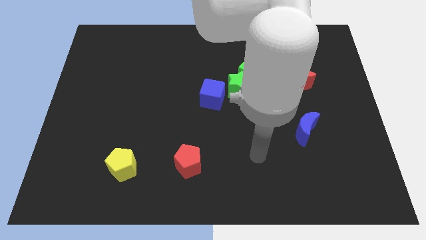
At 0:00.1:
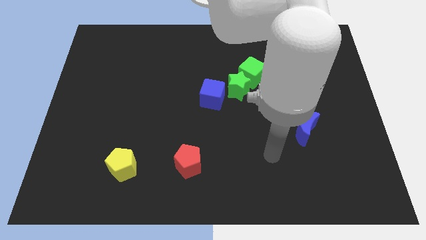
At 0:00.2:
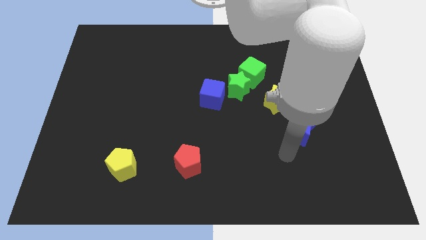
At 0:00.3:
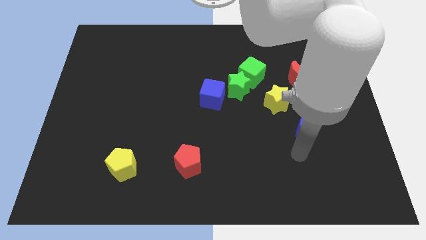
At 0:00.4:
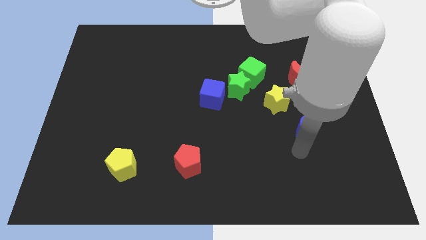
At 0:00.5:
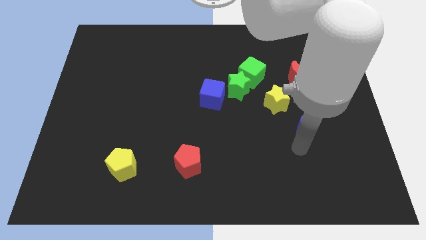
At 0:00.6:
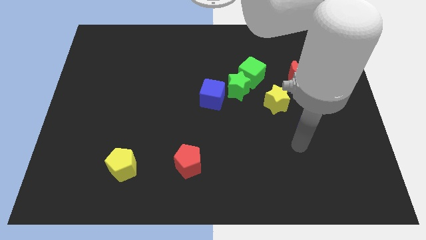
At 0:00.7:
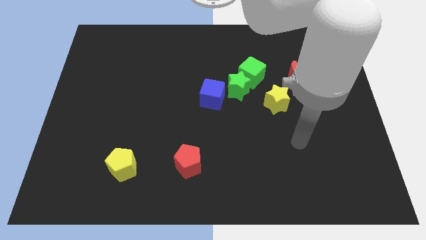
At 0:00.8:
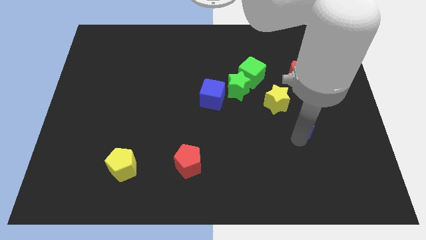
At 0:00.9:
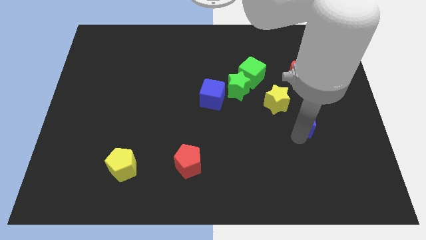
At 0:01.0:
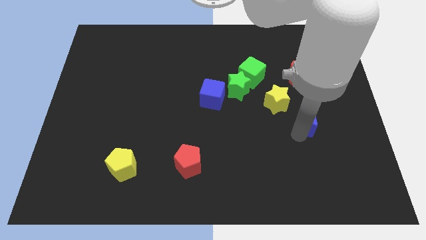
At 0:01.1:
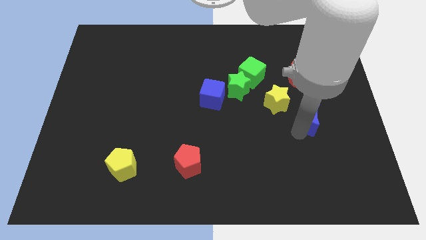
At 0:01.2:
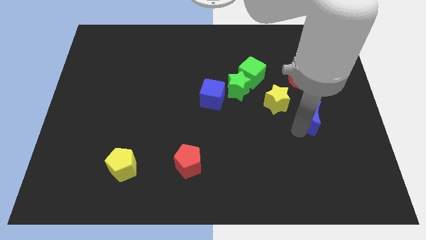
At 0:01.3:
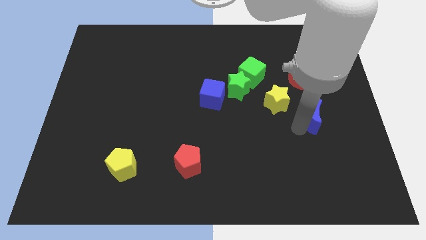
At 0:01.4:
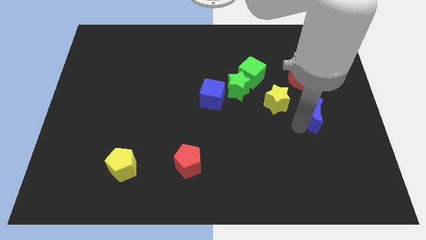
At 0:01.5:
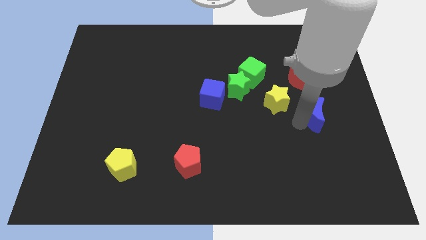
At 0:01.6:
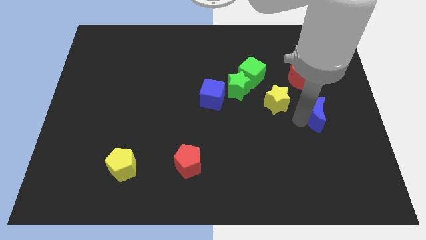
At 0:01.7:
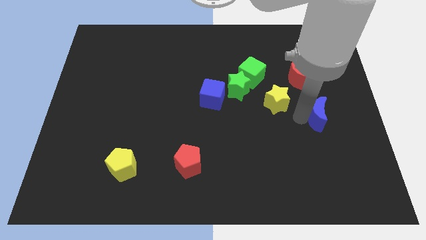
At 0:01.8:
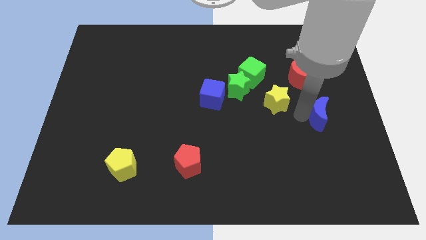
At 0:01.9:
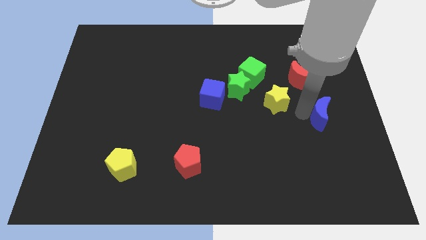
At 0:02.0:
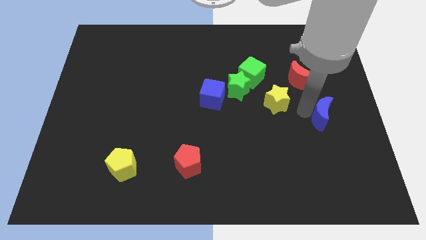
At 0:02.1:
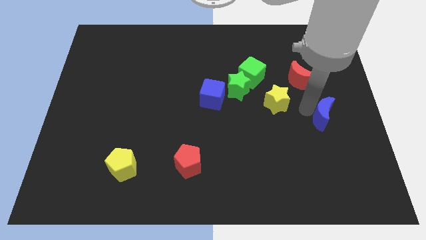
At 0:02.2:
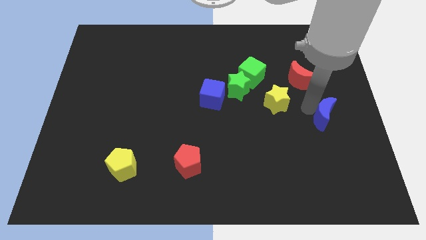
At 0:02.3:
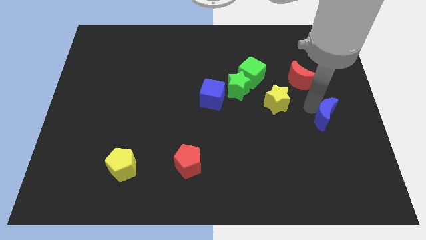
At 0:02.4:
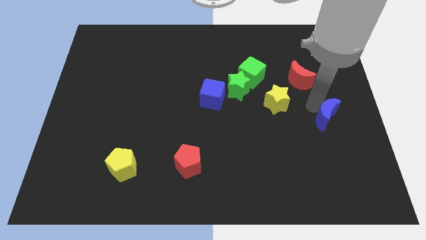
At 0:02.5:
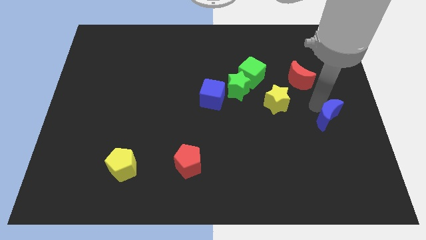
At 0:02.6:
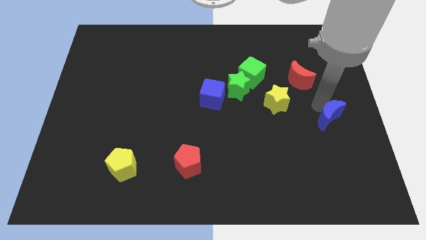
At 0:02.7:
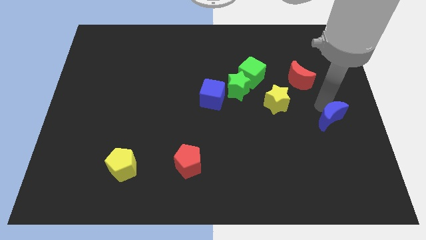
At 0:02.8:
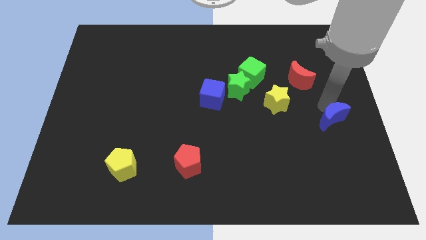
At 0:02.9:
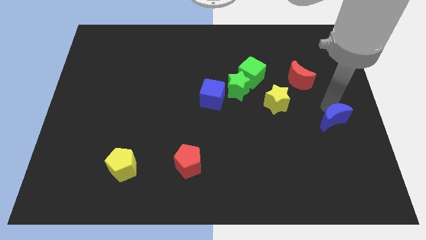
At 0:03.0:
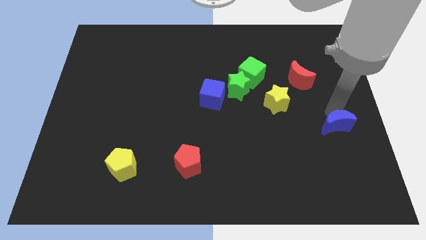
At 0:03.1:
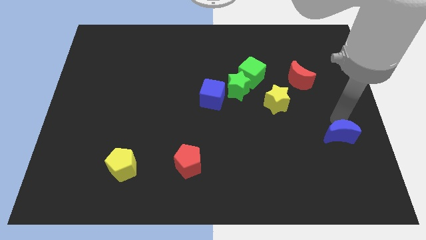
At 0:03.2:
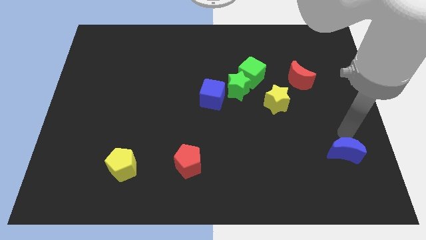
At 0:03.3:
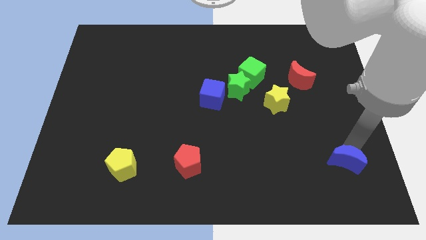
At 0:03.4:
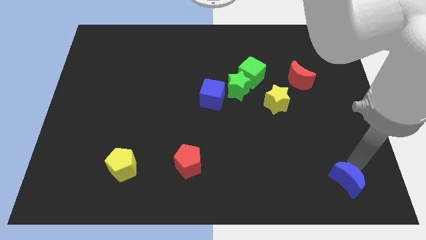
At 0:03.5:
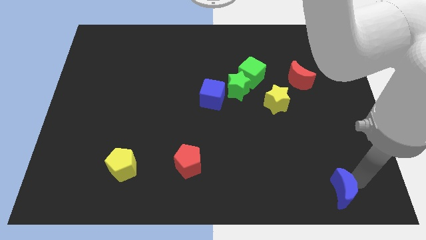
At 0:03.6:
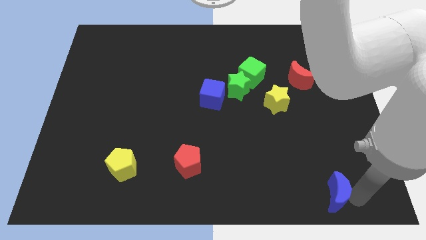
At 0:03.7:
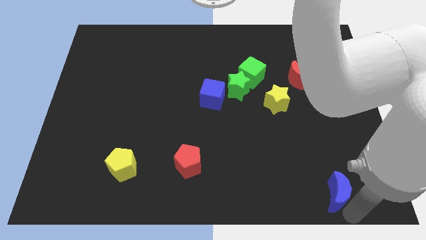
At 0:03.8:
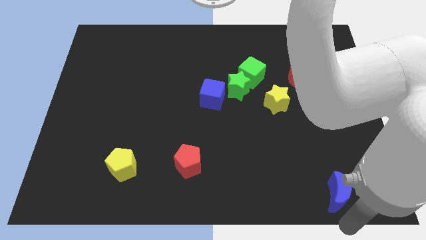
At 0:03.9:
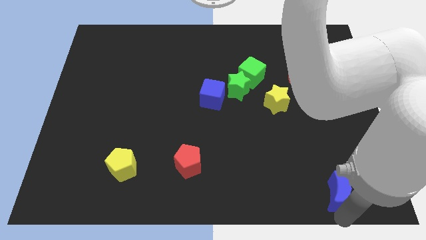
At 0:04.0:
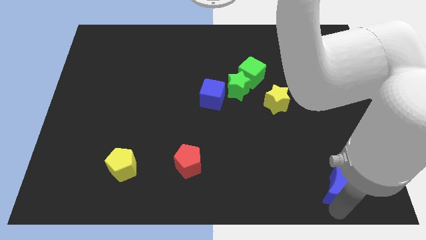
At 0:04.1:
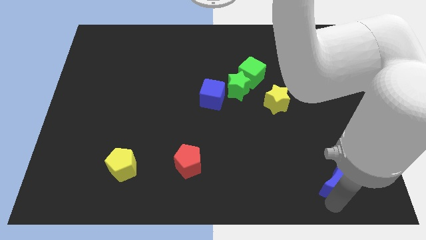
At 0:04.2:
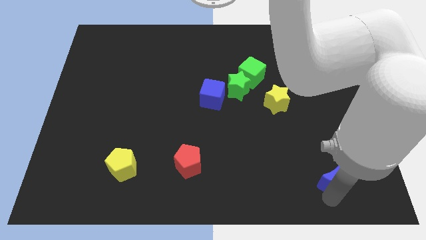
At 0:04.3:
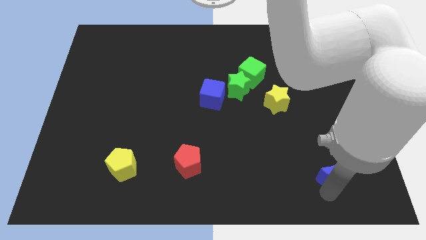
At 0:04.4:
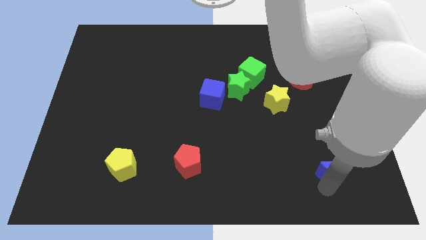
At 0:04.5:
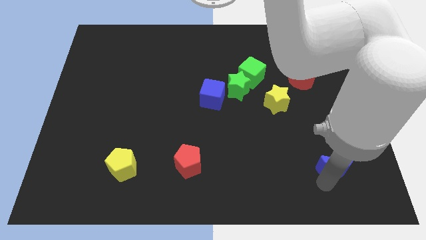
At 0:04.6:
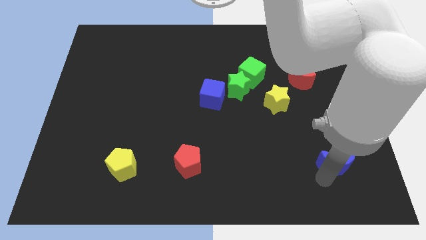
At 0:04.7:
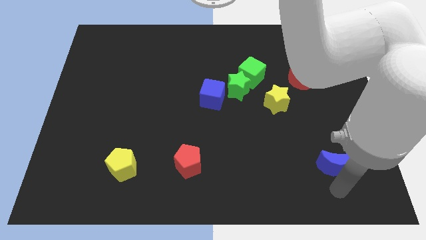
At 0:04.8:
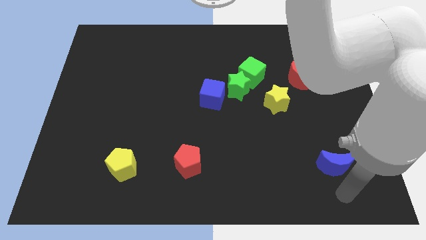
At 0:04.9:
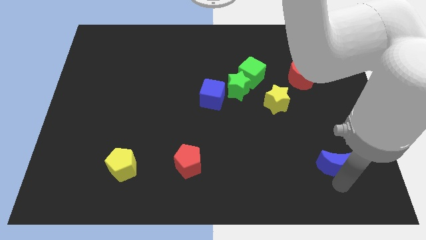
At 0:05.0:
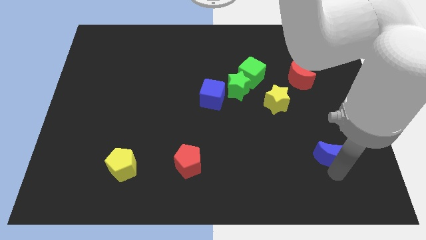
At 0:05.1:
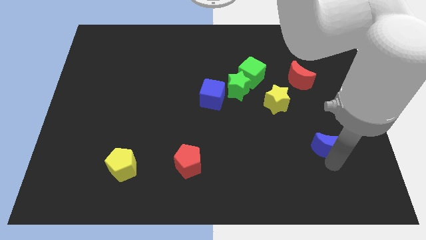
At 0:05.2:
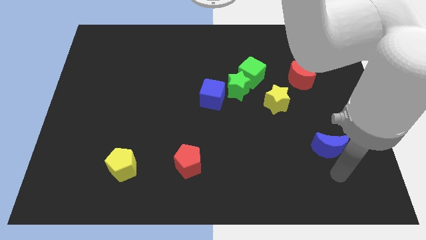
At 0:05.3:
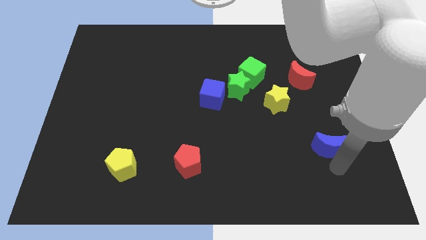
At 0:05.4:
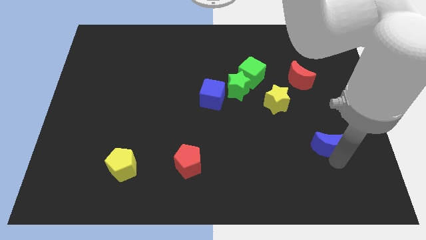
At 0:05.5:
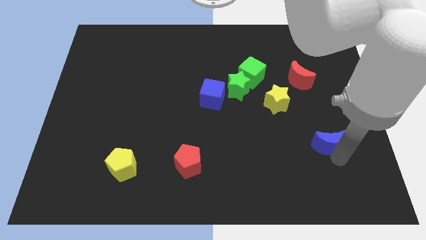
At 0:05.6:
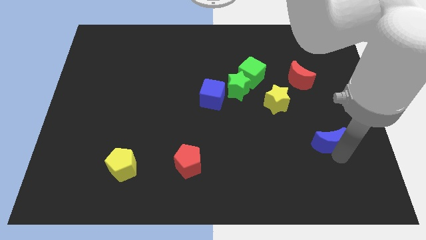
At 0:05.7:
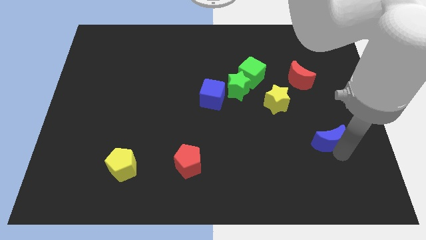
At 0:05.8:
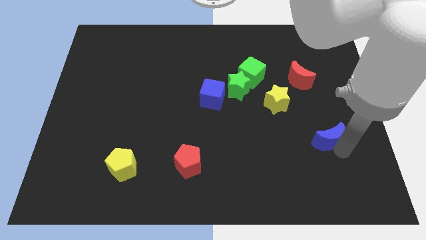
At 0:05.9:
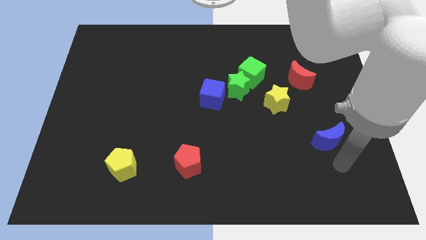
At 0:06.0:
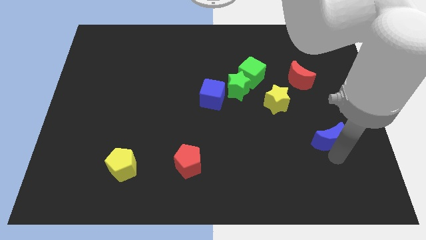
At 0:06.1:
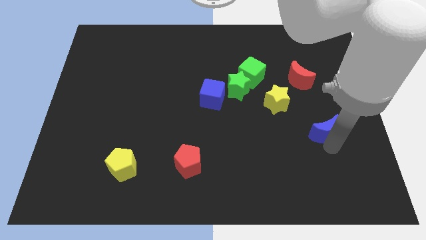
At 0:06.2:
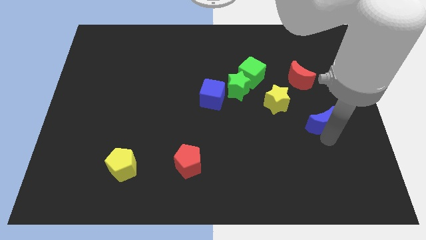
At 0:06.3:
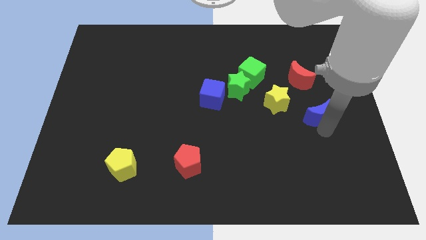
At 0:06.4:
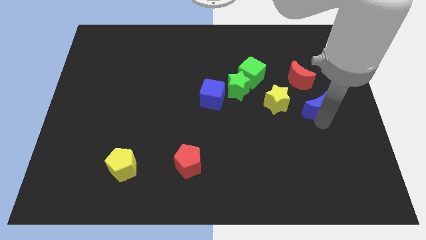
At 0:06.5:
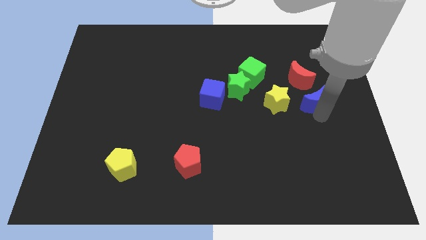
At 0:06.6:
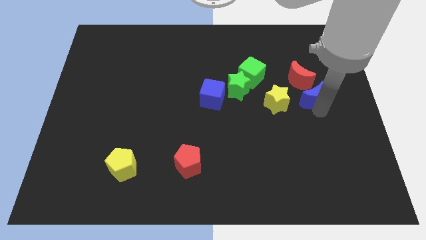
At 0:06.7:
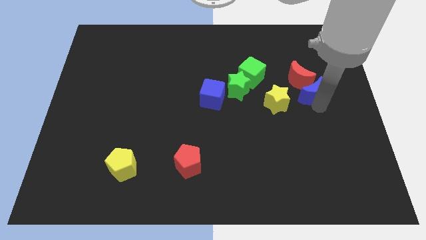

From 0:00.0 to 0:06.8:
put the blue moon close to the red moon

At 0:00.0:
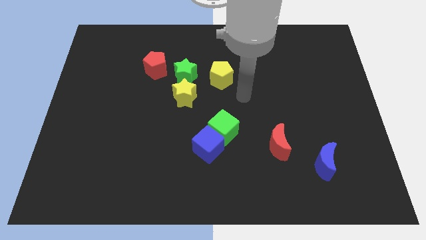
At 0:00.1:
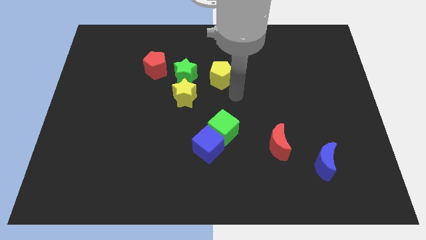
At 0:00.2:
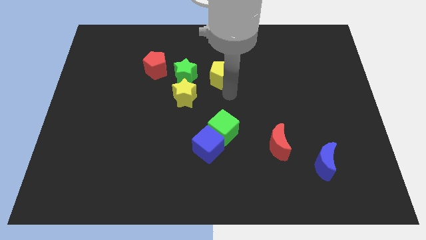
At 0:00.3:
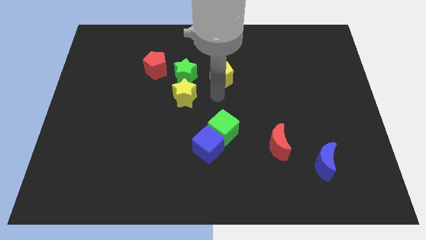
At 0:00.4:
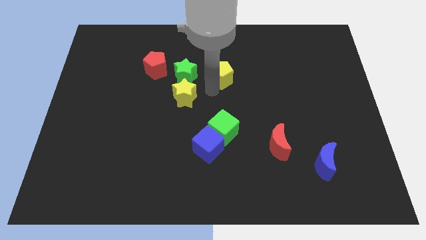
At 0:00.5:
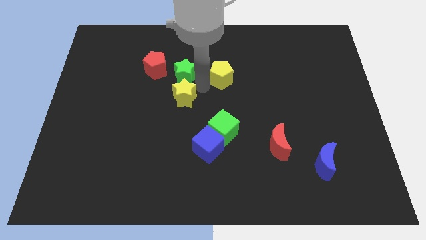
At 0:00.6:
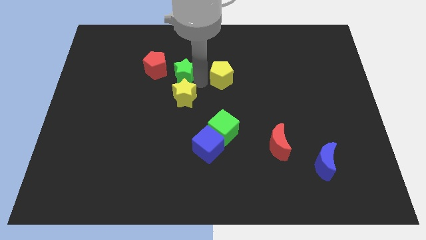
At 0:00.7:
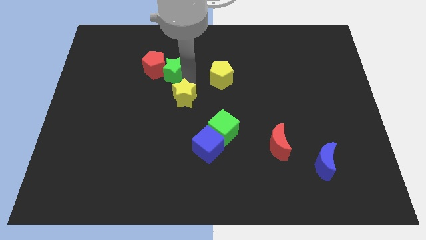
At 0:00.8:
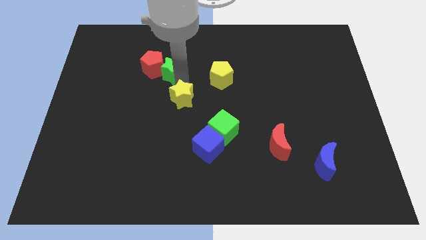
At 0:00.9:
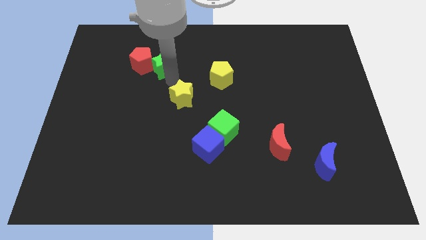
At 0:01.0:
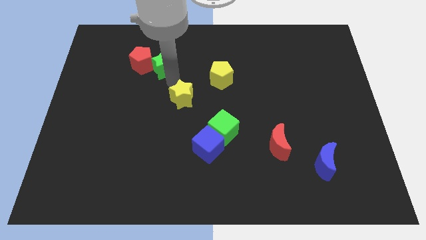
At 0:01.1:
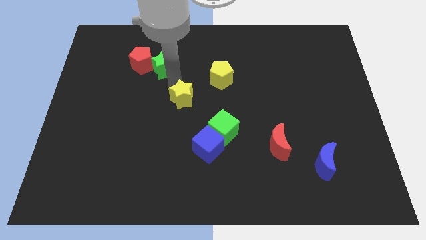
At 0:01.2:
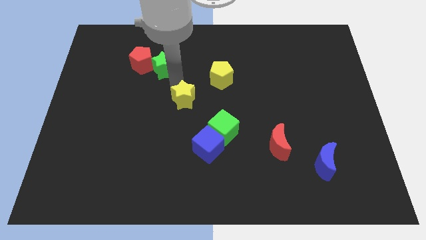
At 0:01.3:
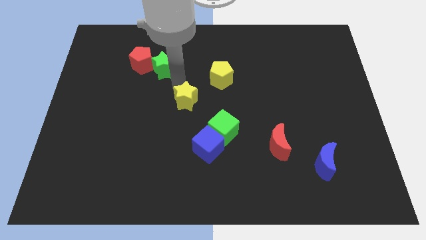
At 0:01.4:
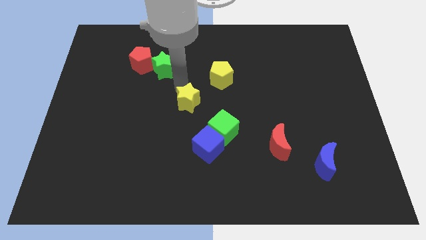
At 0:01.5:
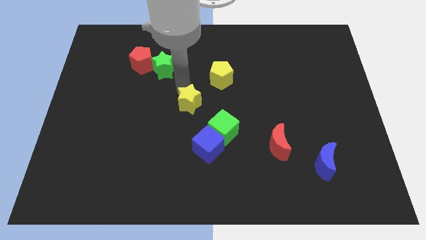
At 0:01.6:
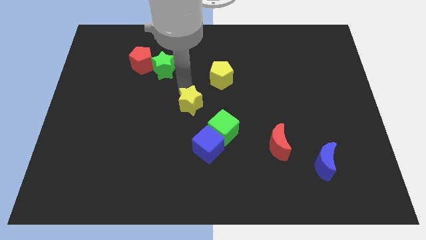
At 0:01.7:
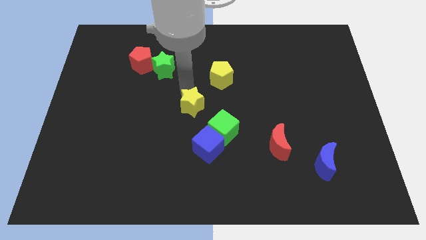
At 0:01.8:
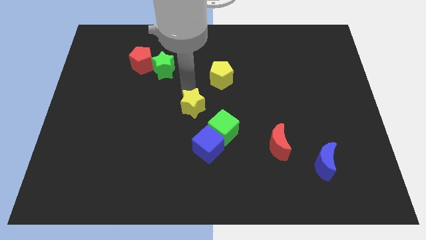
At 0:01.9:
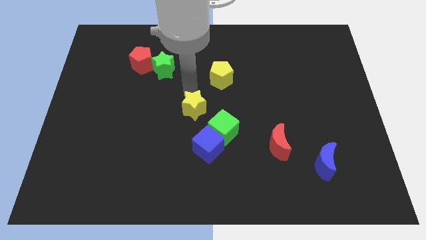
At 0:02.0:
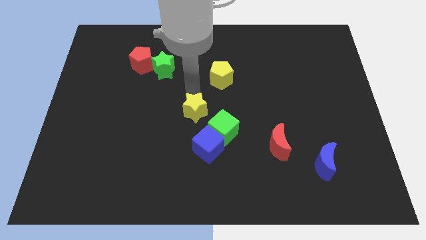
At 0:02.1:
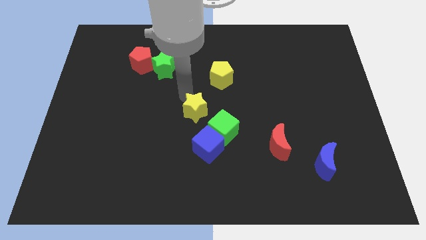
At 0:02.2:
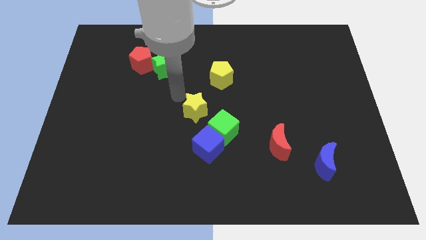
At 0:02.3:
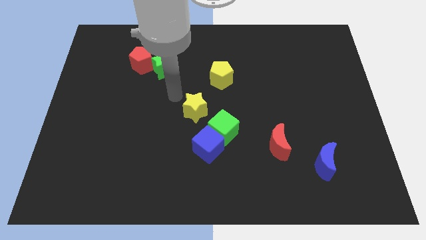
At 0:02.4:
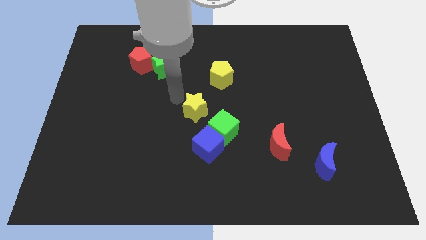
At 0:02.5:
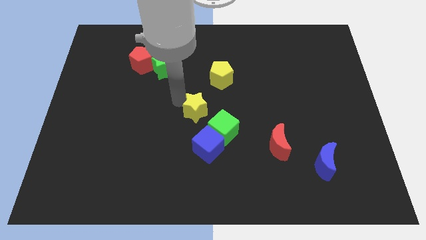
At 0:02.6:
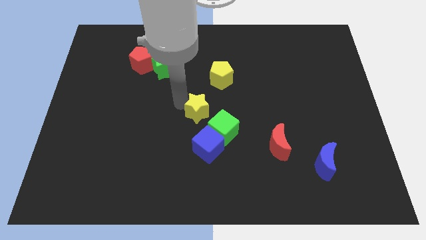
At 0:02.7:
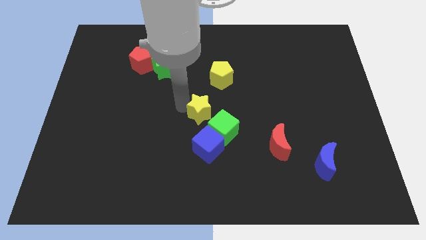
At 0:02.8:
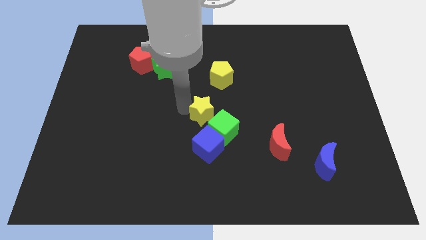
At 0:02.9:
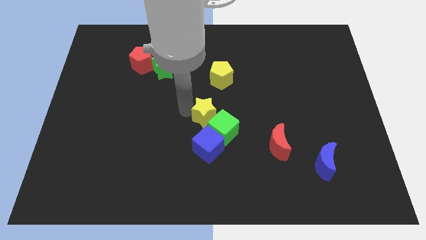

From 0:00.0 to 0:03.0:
move the yellow star towards the green cube
